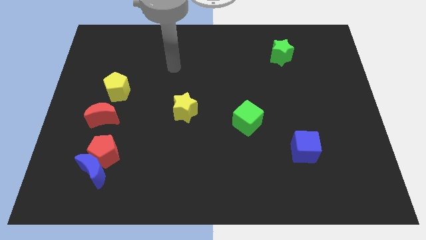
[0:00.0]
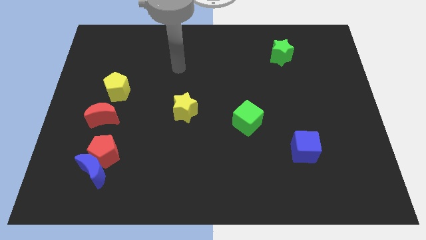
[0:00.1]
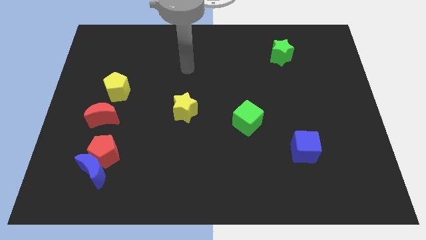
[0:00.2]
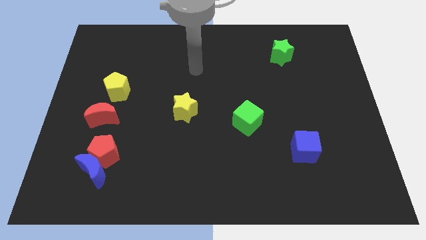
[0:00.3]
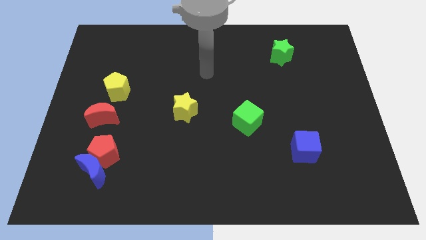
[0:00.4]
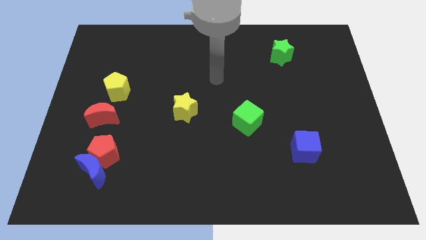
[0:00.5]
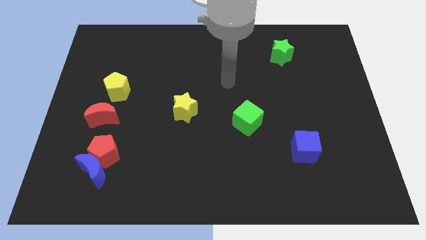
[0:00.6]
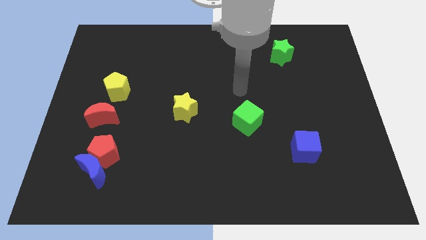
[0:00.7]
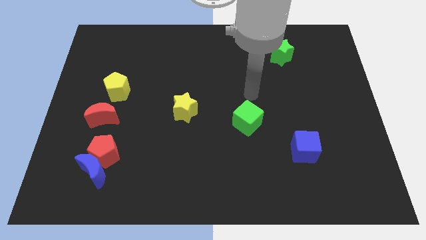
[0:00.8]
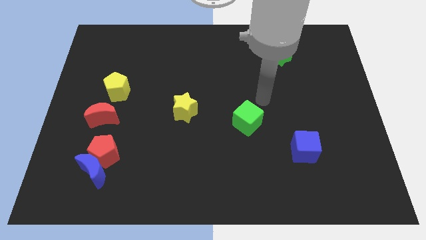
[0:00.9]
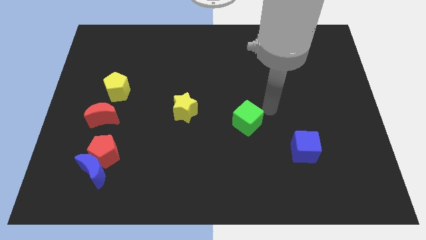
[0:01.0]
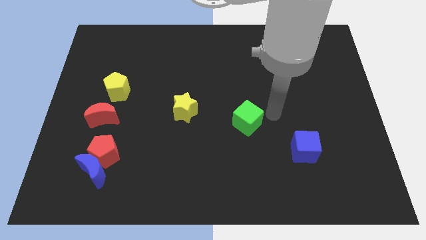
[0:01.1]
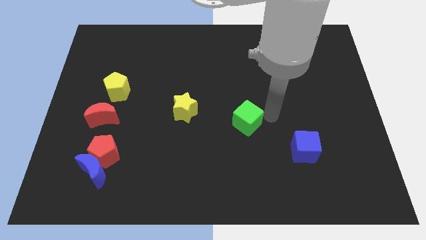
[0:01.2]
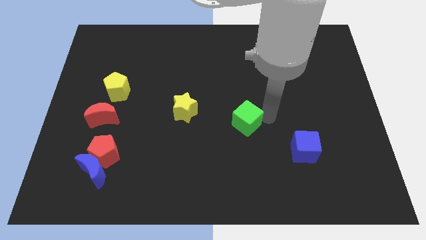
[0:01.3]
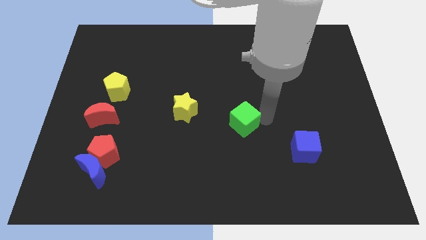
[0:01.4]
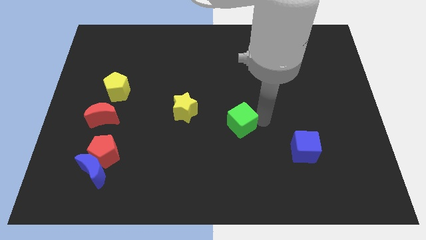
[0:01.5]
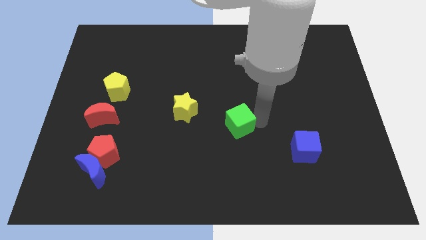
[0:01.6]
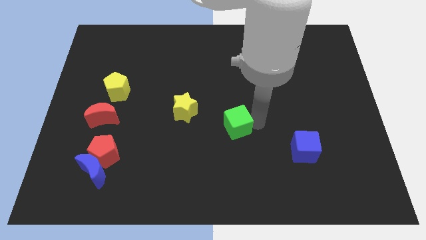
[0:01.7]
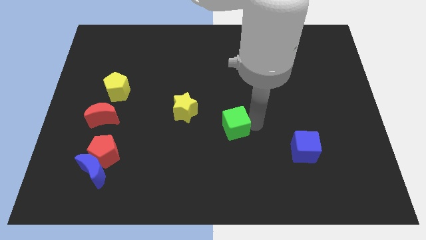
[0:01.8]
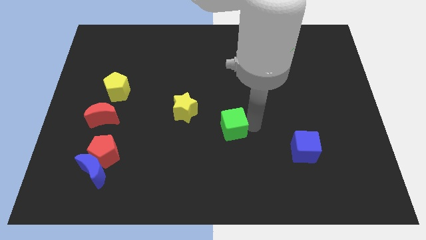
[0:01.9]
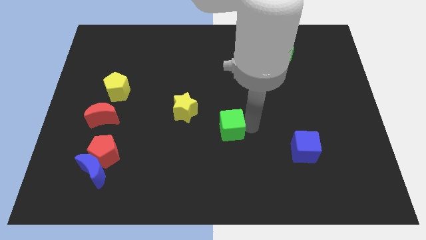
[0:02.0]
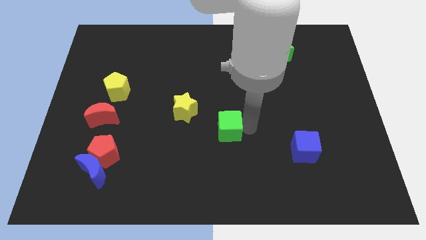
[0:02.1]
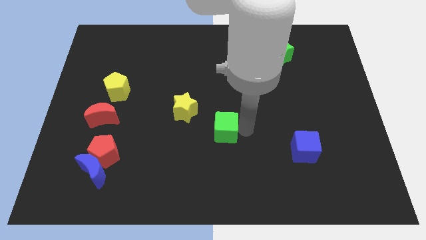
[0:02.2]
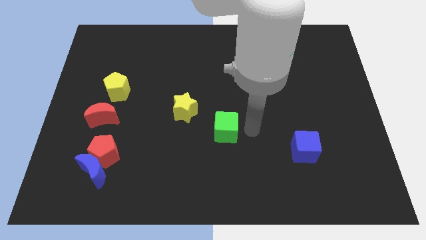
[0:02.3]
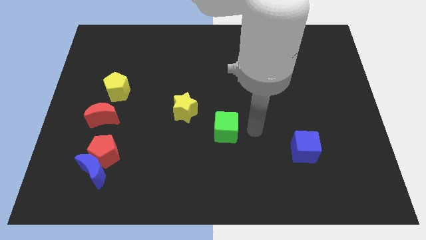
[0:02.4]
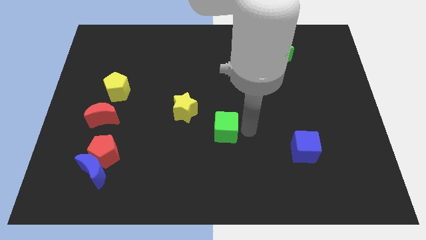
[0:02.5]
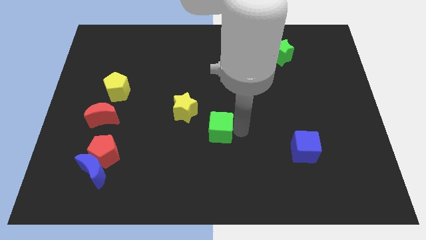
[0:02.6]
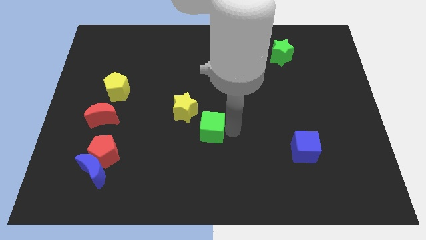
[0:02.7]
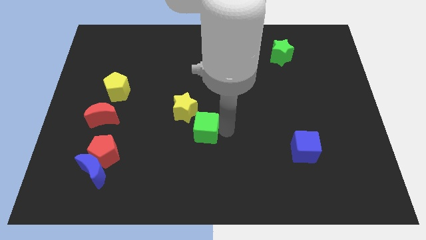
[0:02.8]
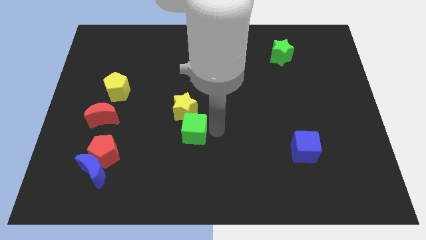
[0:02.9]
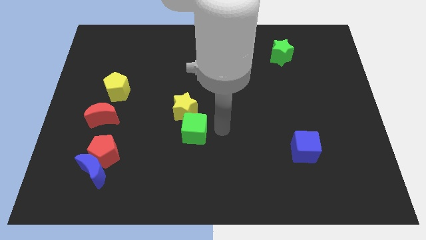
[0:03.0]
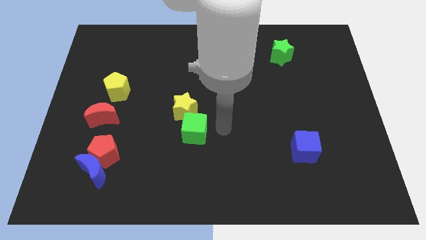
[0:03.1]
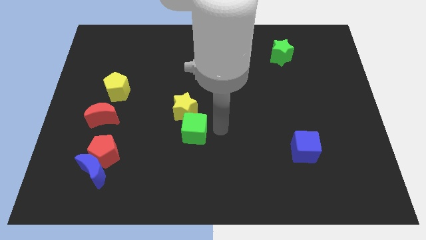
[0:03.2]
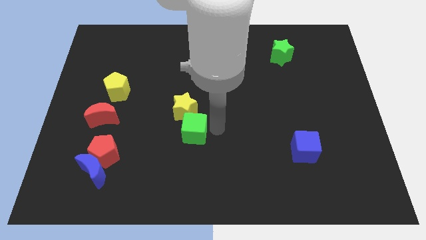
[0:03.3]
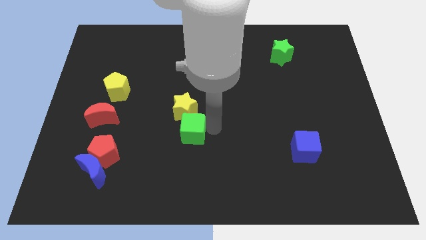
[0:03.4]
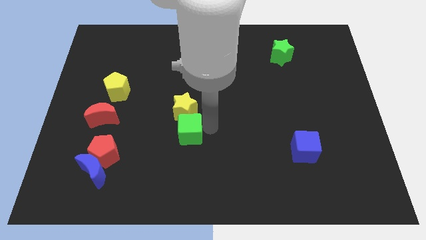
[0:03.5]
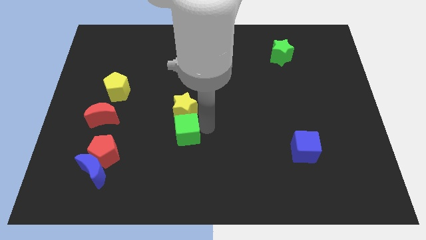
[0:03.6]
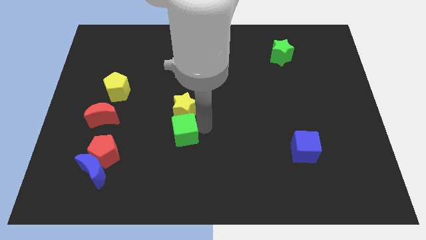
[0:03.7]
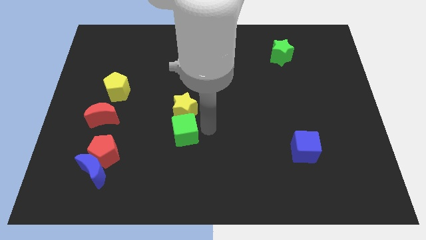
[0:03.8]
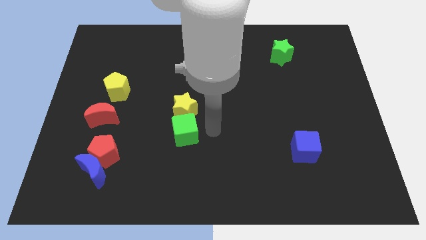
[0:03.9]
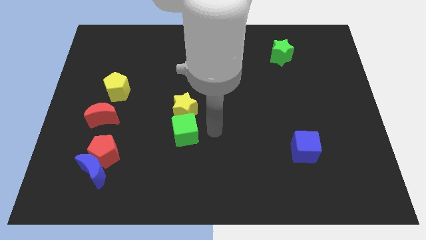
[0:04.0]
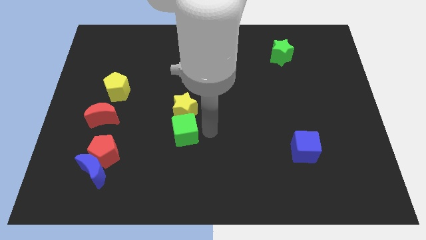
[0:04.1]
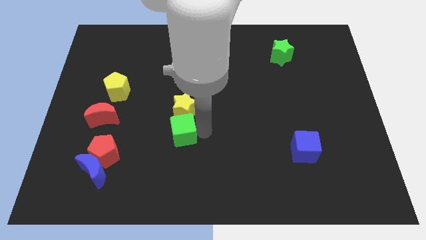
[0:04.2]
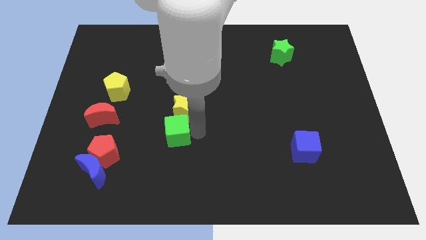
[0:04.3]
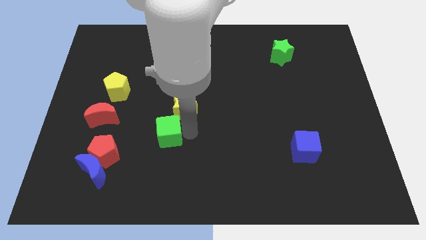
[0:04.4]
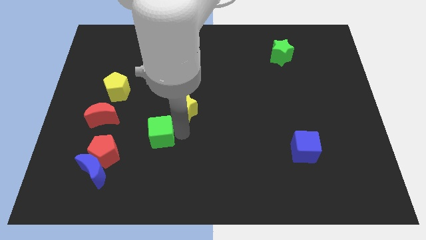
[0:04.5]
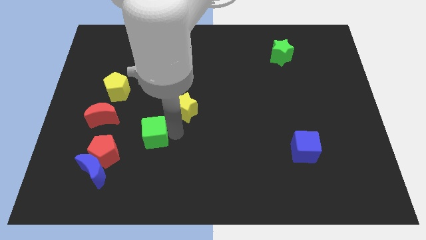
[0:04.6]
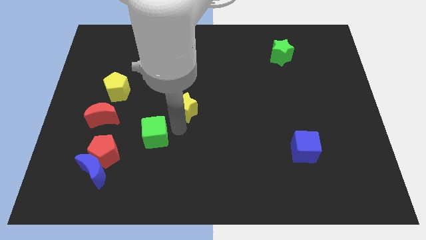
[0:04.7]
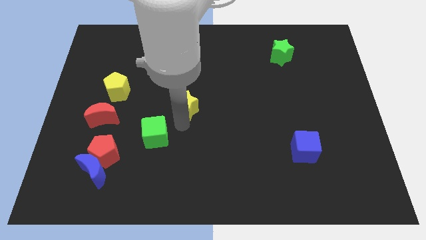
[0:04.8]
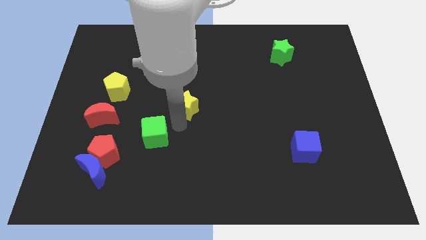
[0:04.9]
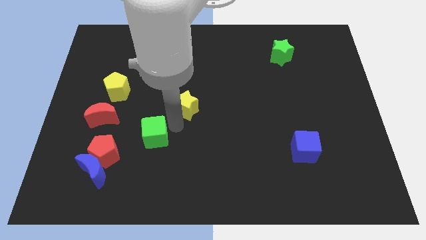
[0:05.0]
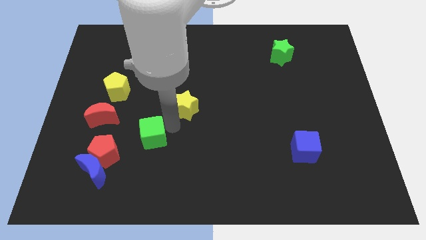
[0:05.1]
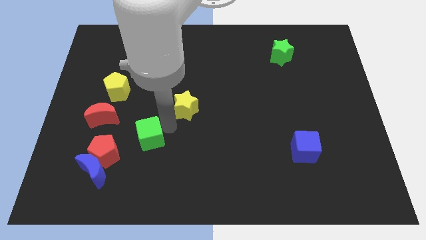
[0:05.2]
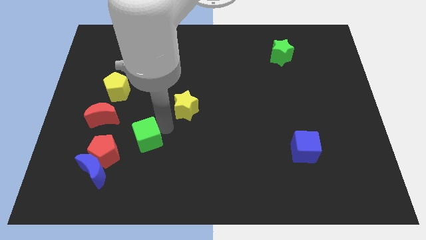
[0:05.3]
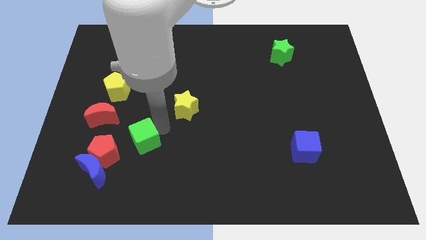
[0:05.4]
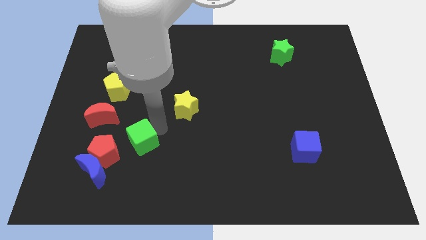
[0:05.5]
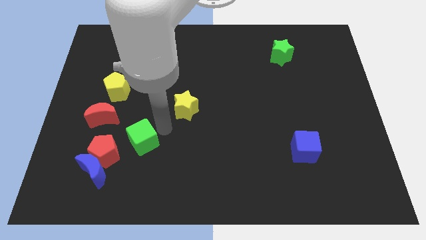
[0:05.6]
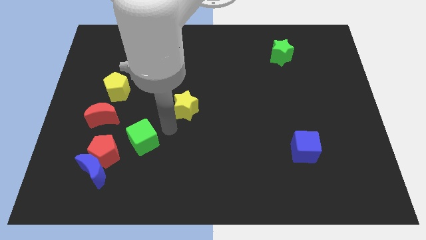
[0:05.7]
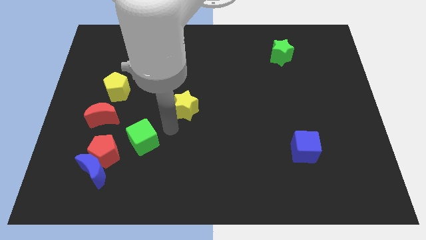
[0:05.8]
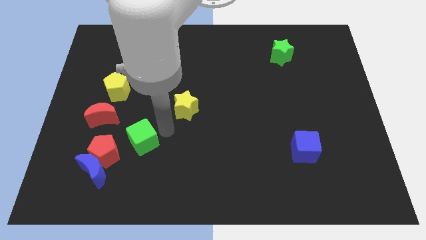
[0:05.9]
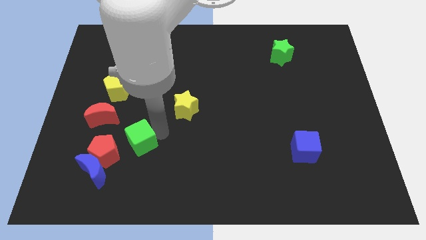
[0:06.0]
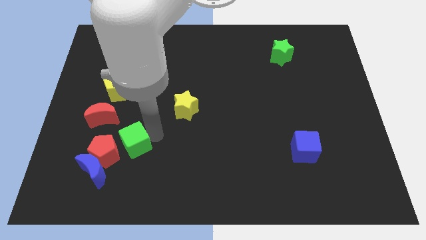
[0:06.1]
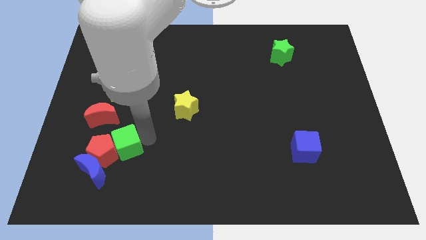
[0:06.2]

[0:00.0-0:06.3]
put the green cube towards the red pentagon

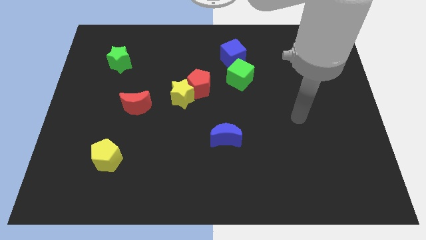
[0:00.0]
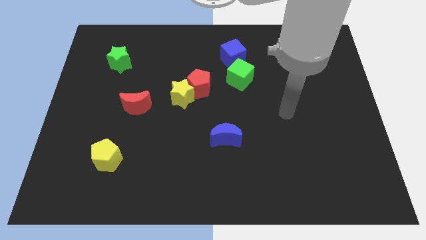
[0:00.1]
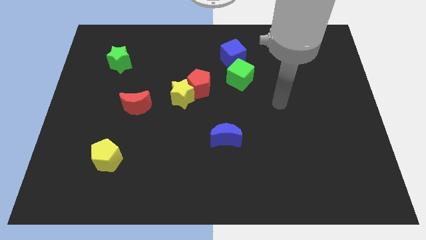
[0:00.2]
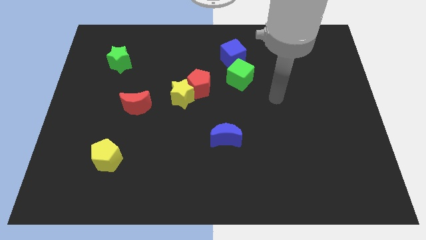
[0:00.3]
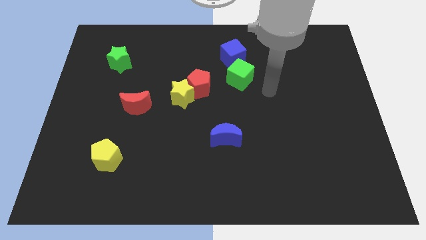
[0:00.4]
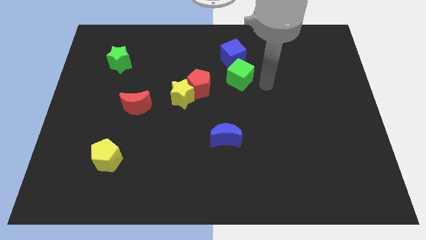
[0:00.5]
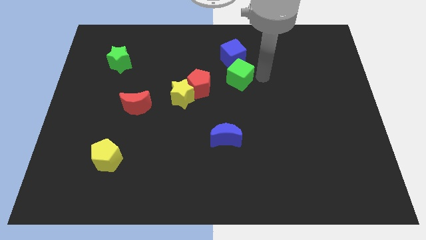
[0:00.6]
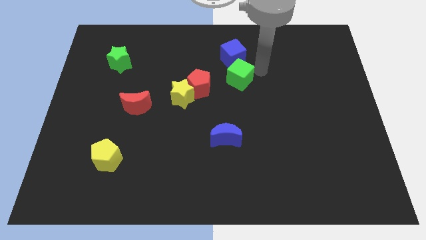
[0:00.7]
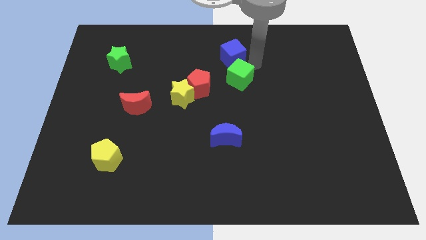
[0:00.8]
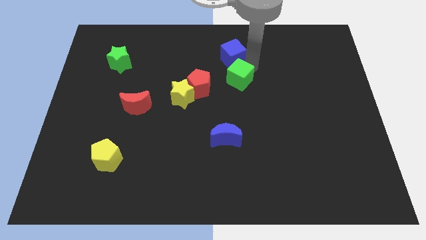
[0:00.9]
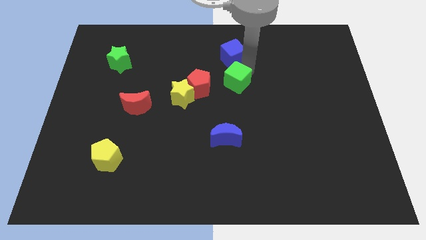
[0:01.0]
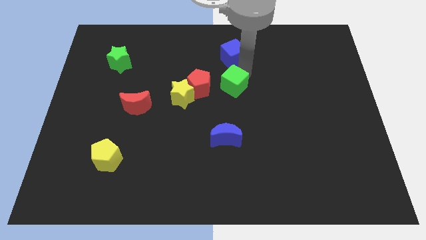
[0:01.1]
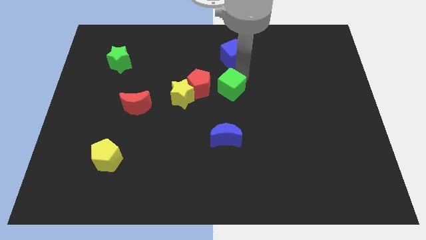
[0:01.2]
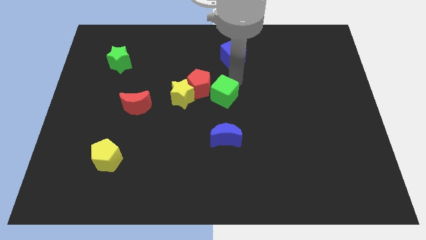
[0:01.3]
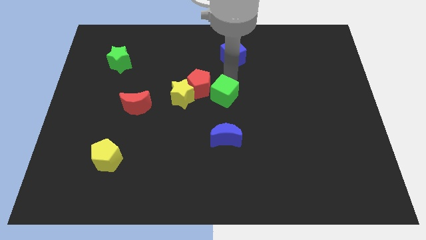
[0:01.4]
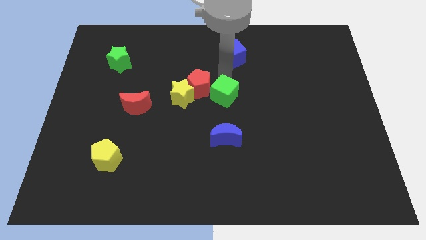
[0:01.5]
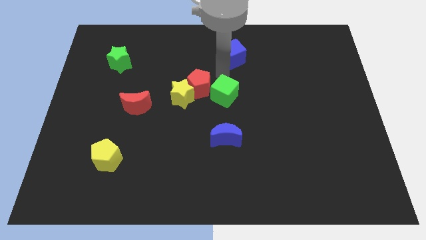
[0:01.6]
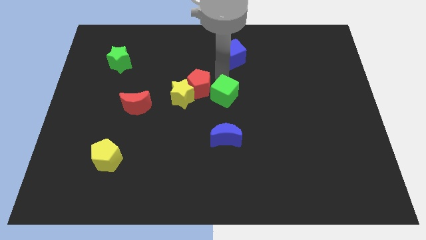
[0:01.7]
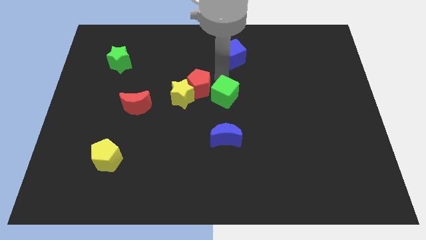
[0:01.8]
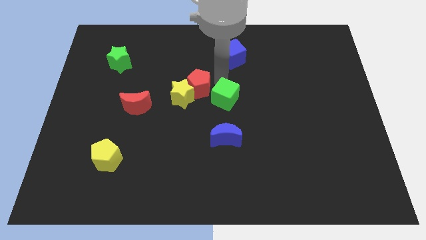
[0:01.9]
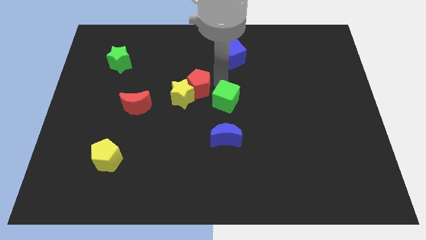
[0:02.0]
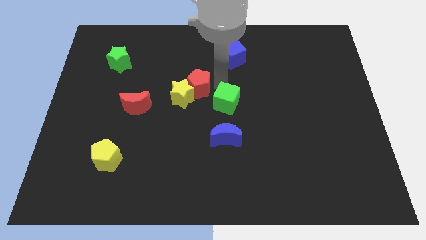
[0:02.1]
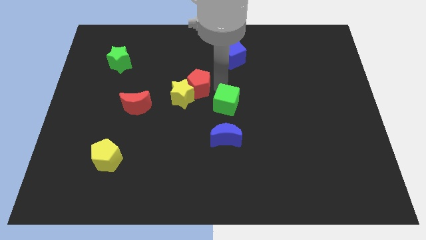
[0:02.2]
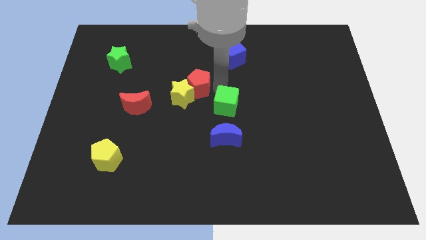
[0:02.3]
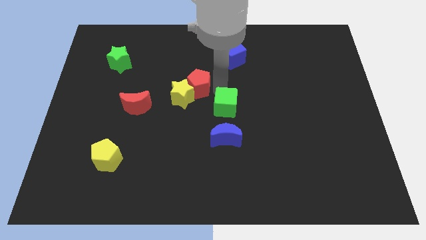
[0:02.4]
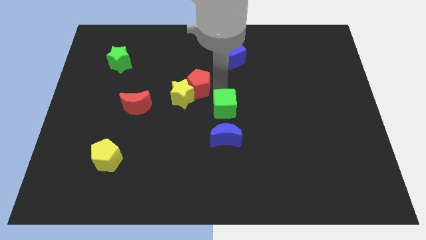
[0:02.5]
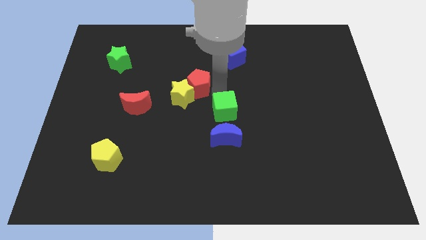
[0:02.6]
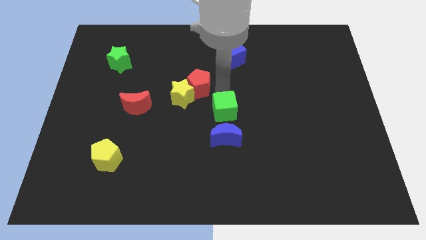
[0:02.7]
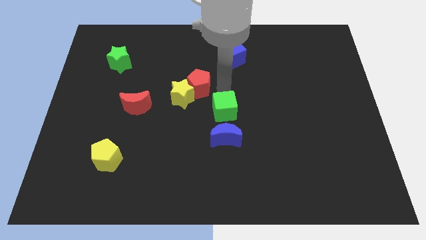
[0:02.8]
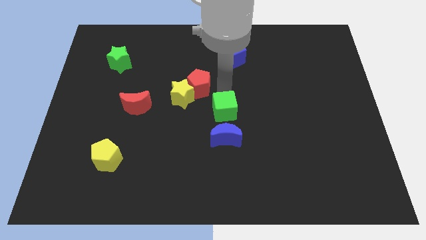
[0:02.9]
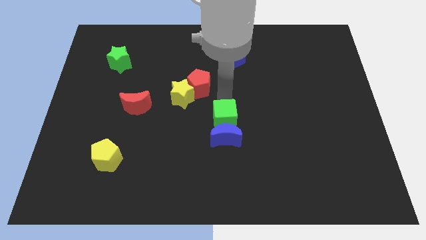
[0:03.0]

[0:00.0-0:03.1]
slide the green cube close to the blue moon
